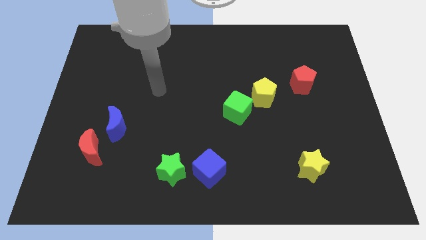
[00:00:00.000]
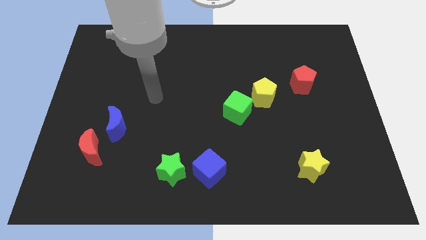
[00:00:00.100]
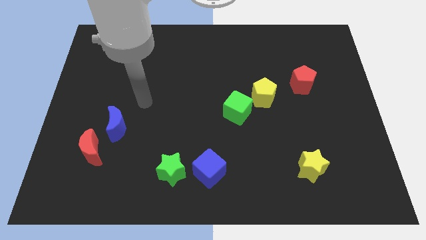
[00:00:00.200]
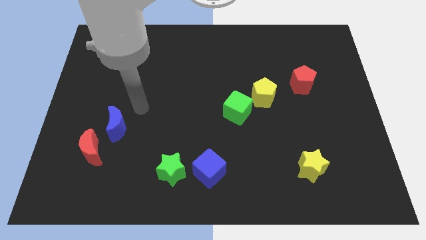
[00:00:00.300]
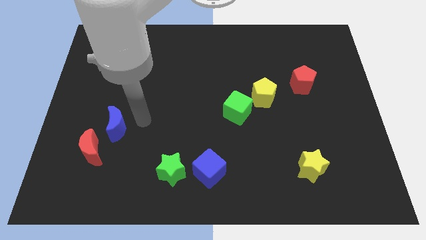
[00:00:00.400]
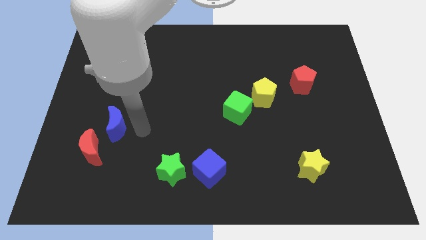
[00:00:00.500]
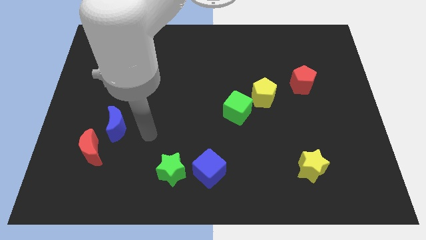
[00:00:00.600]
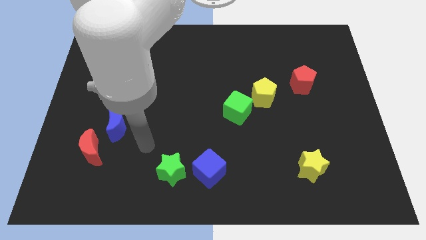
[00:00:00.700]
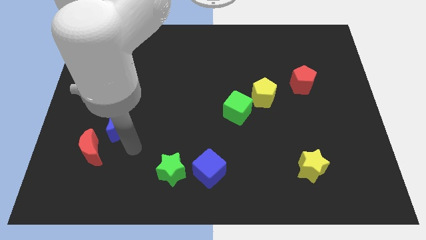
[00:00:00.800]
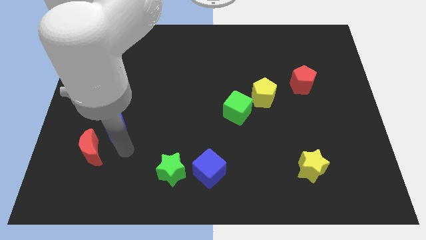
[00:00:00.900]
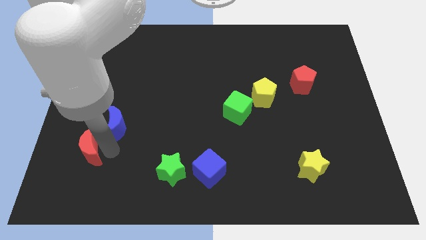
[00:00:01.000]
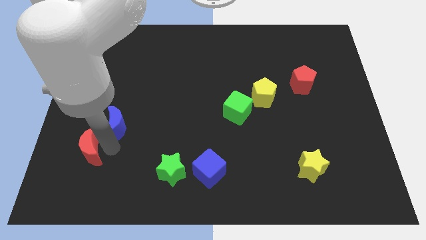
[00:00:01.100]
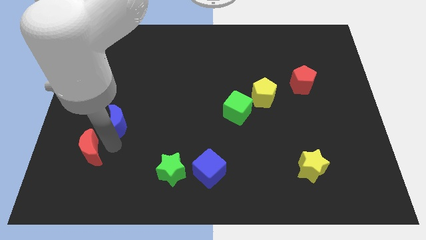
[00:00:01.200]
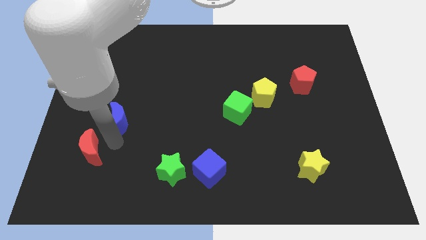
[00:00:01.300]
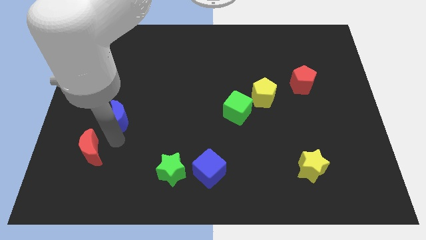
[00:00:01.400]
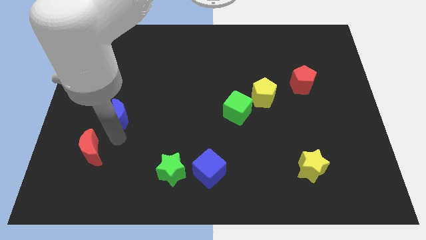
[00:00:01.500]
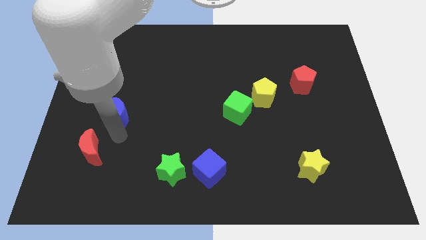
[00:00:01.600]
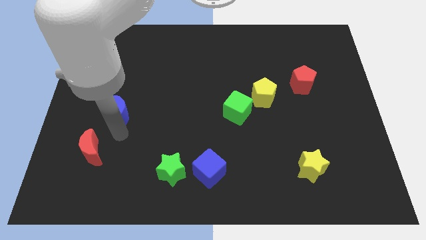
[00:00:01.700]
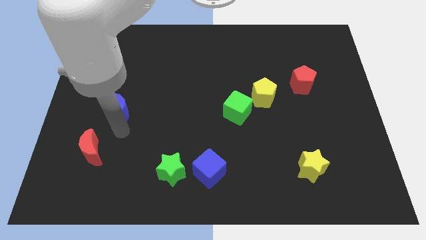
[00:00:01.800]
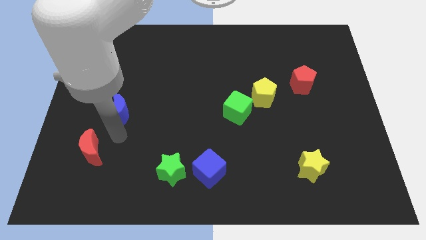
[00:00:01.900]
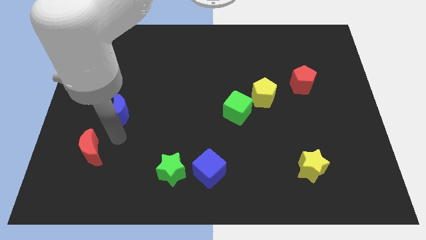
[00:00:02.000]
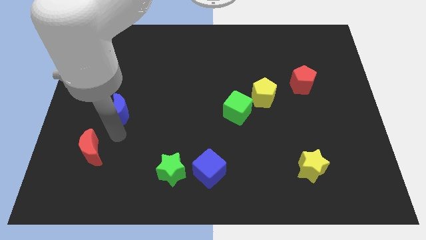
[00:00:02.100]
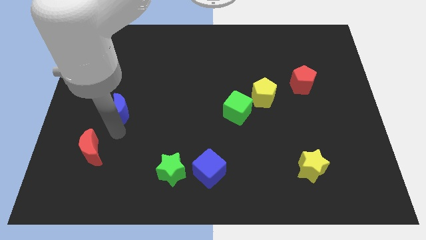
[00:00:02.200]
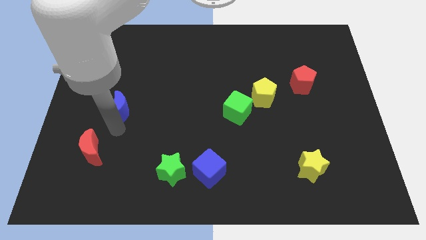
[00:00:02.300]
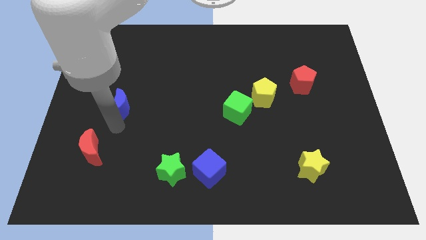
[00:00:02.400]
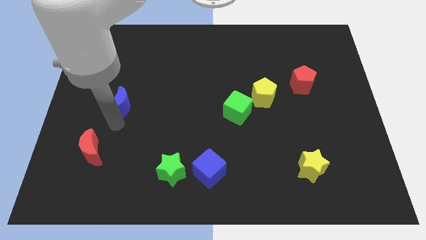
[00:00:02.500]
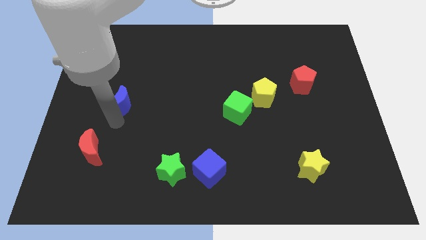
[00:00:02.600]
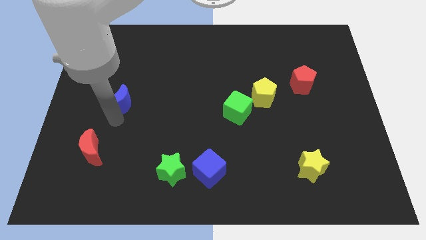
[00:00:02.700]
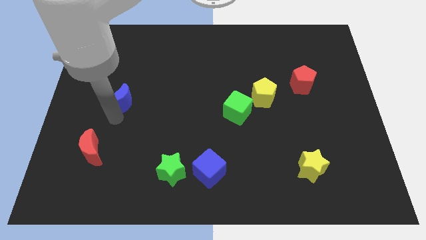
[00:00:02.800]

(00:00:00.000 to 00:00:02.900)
slide the blue moon upwards slightly

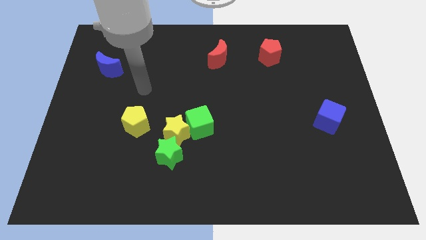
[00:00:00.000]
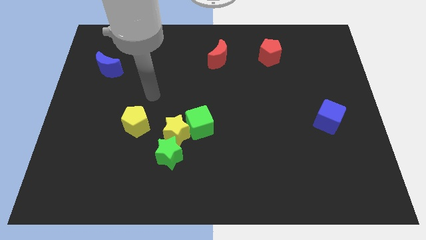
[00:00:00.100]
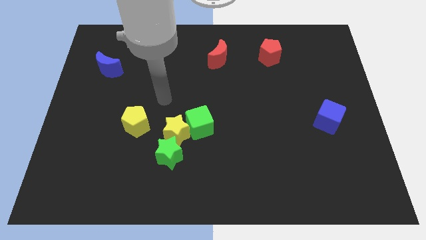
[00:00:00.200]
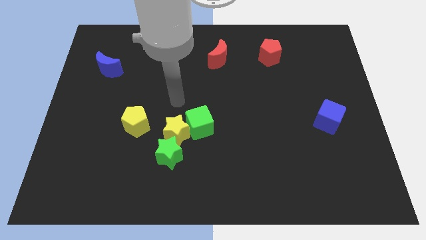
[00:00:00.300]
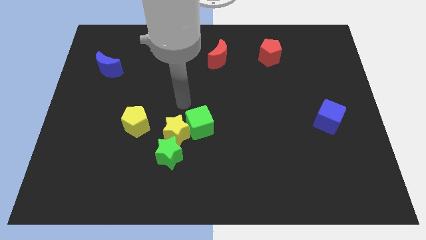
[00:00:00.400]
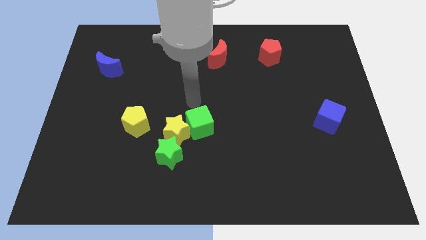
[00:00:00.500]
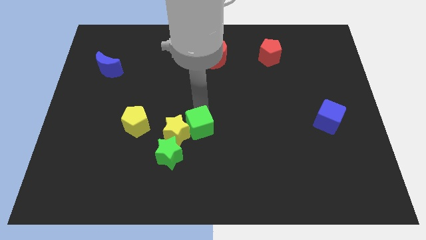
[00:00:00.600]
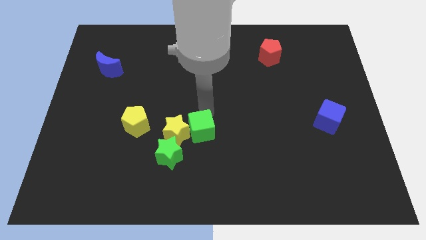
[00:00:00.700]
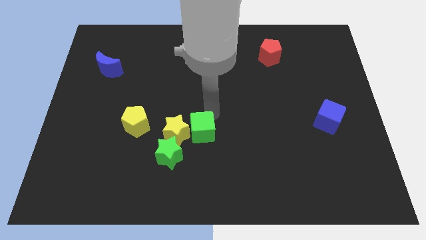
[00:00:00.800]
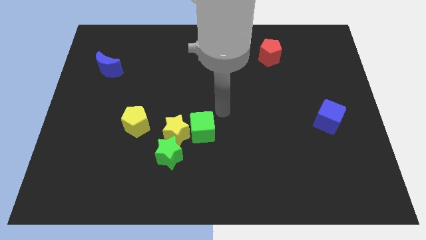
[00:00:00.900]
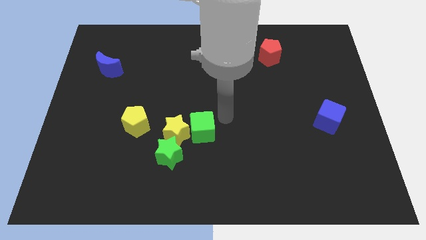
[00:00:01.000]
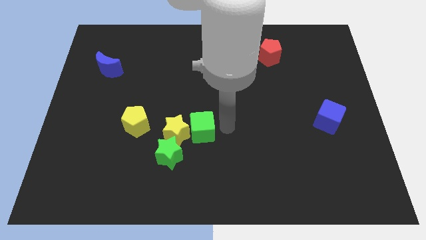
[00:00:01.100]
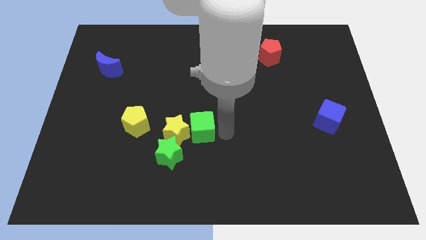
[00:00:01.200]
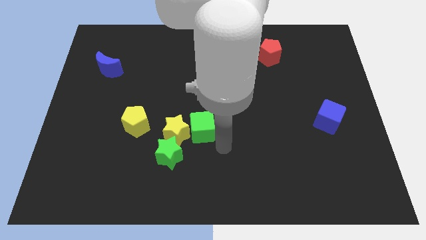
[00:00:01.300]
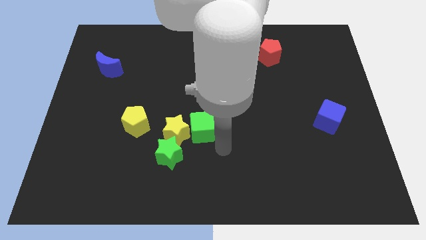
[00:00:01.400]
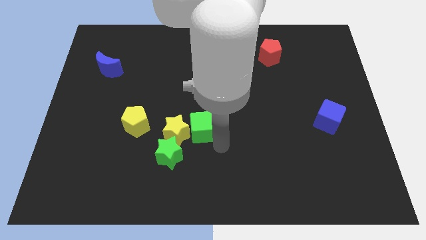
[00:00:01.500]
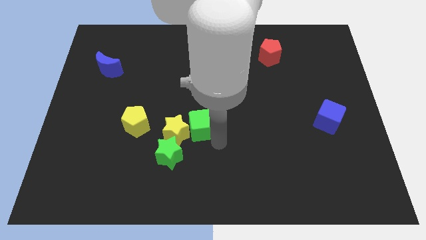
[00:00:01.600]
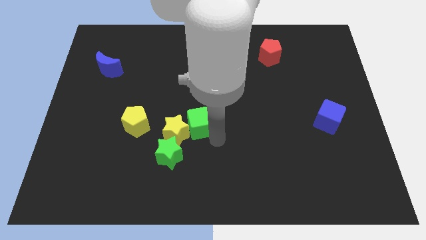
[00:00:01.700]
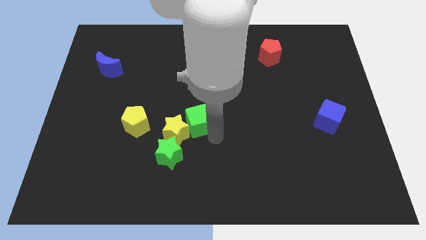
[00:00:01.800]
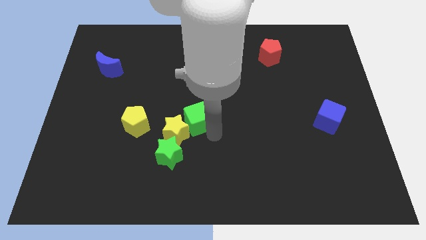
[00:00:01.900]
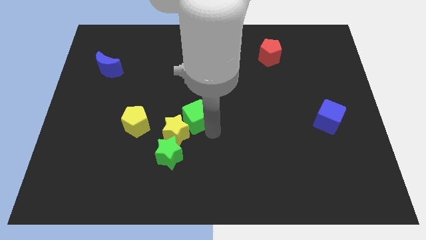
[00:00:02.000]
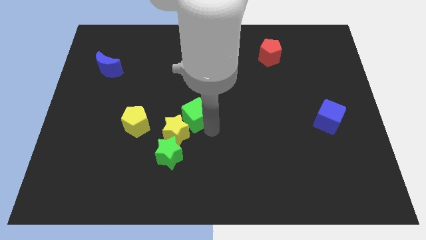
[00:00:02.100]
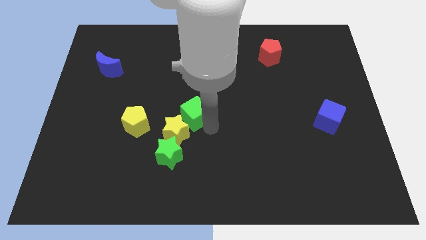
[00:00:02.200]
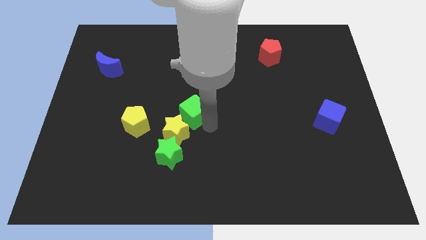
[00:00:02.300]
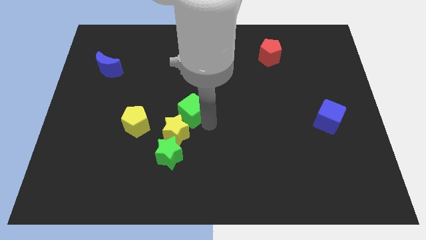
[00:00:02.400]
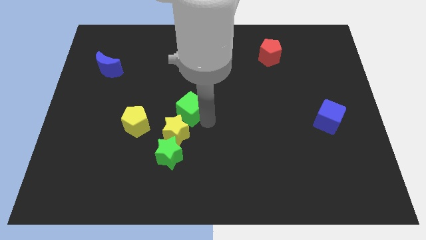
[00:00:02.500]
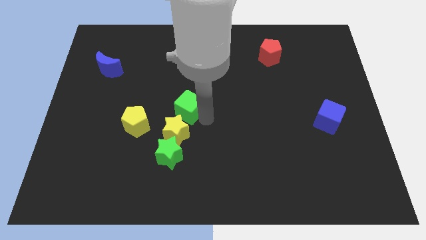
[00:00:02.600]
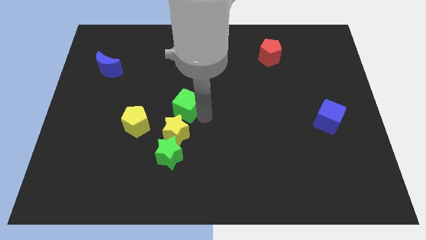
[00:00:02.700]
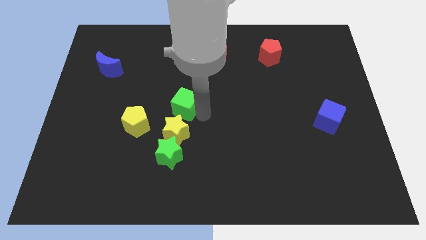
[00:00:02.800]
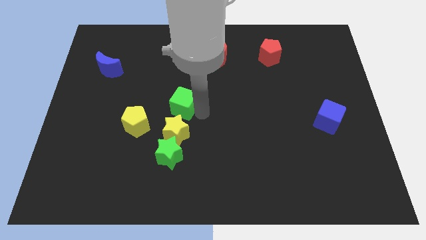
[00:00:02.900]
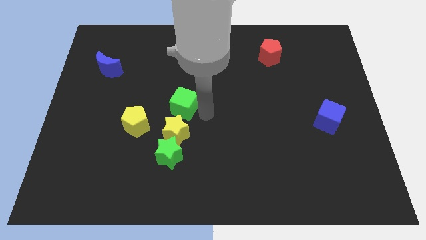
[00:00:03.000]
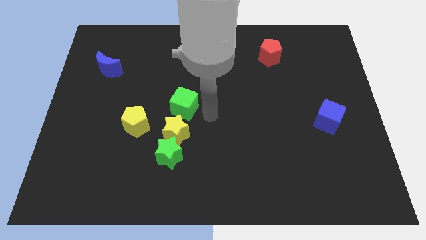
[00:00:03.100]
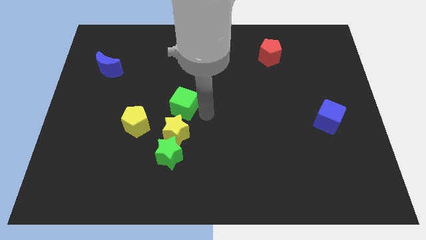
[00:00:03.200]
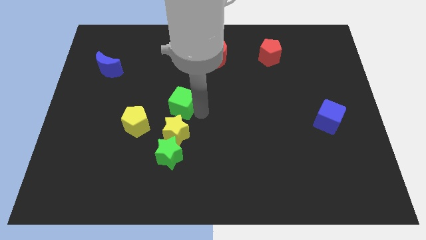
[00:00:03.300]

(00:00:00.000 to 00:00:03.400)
slightly push the green cube upwards and then left

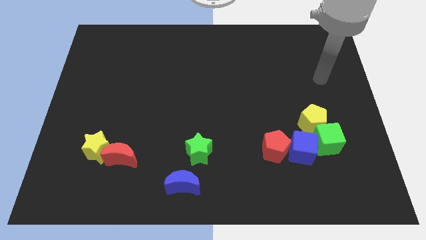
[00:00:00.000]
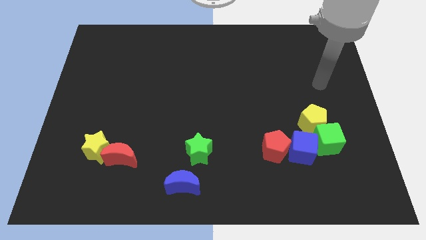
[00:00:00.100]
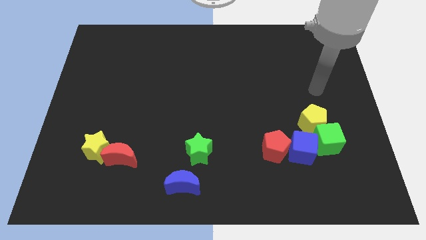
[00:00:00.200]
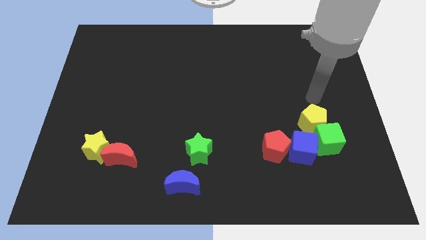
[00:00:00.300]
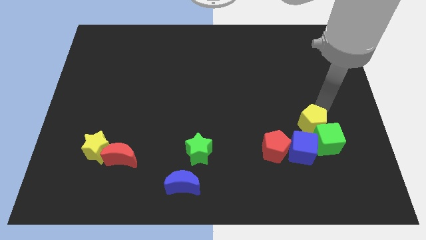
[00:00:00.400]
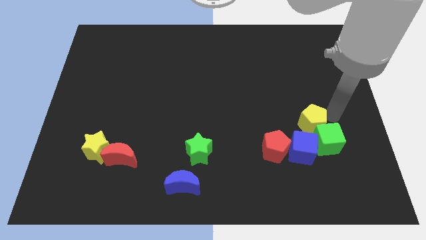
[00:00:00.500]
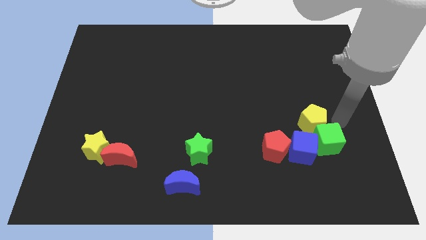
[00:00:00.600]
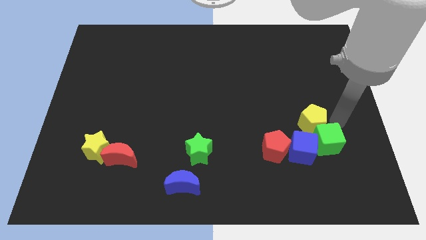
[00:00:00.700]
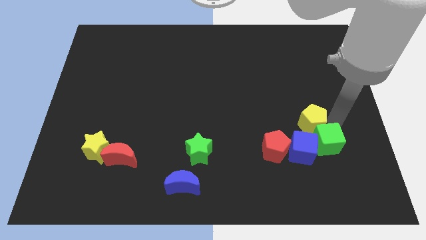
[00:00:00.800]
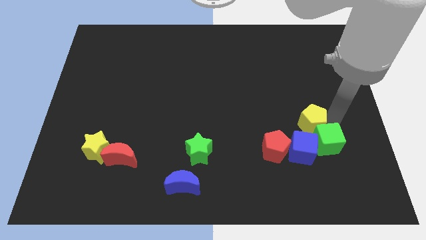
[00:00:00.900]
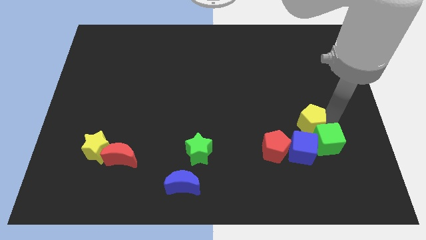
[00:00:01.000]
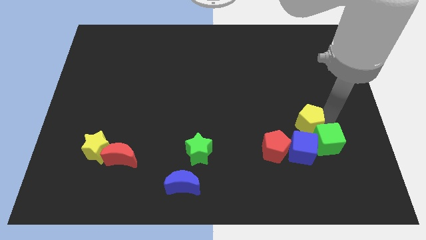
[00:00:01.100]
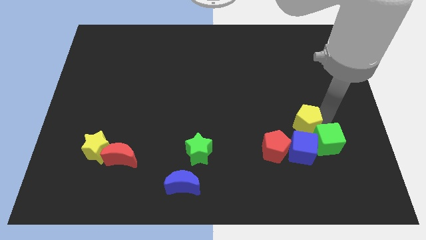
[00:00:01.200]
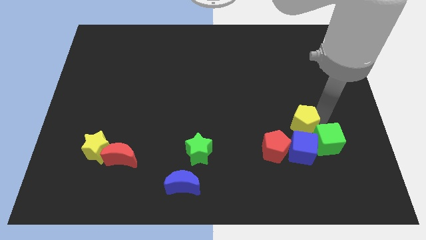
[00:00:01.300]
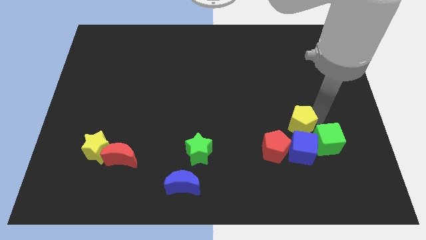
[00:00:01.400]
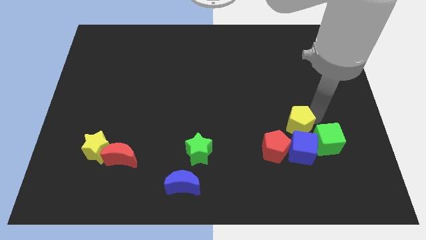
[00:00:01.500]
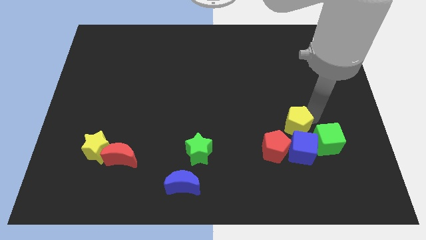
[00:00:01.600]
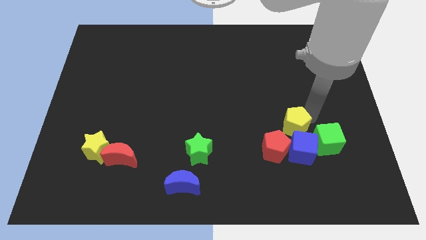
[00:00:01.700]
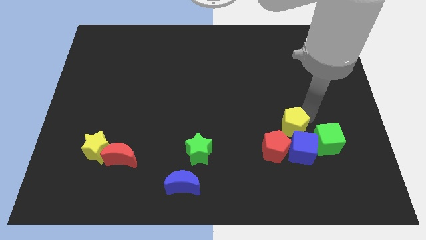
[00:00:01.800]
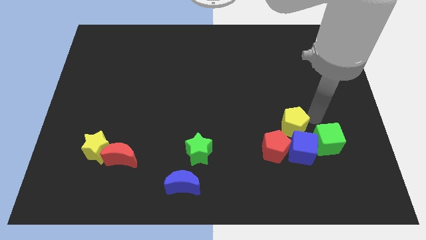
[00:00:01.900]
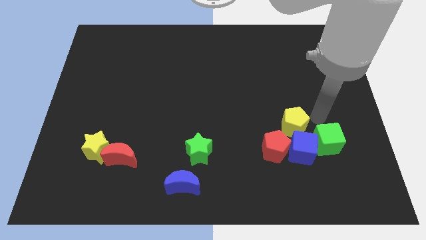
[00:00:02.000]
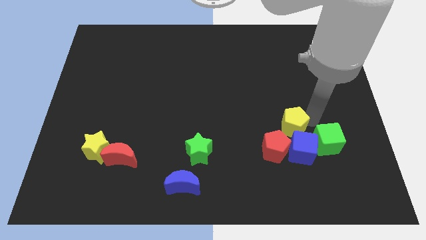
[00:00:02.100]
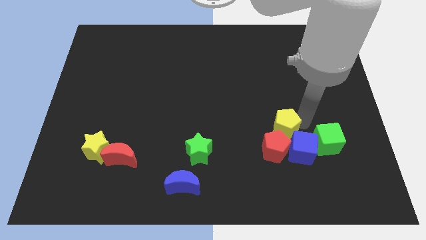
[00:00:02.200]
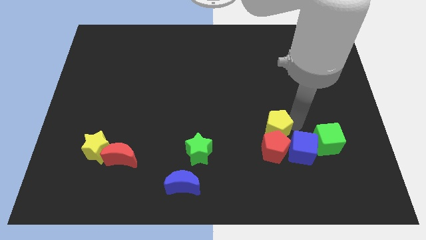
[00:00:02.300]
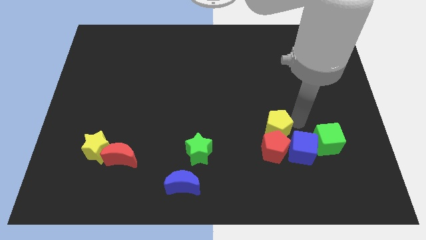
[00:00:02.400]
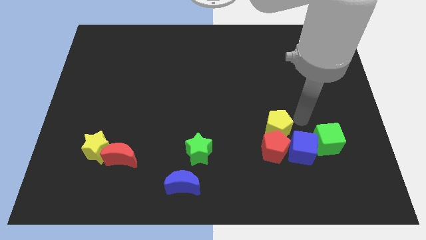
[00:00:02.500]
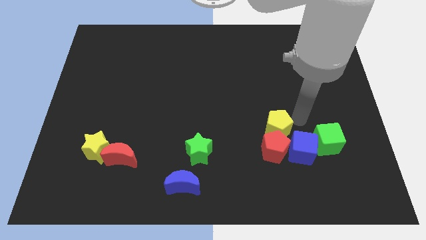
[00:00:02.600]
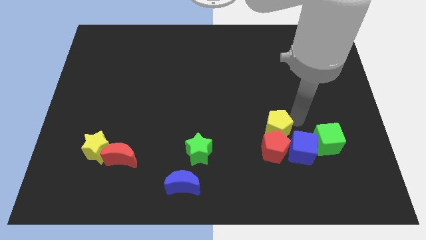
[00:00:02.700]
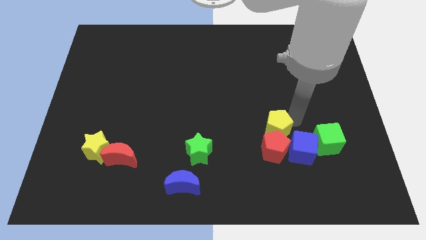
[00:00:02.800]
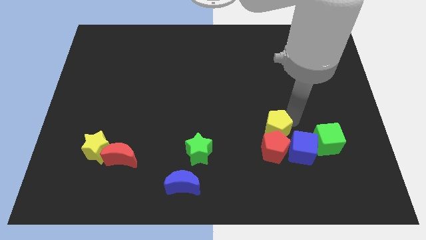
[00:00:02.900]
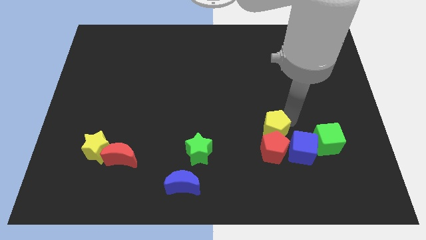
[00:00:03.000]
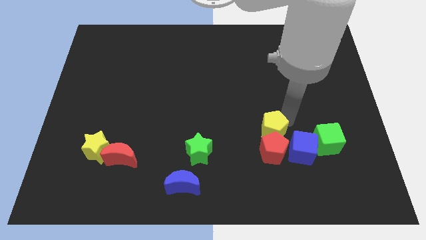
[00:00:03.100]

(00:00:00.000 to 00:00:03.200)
push the yellow pentagon diagonally down and left a little
